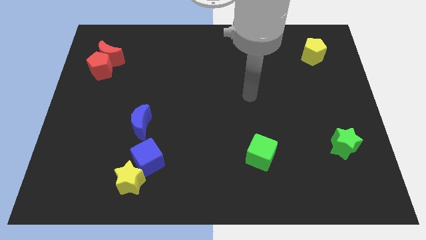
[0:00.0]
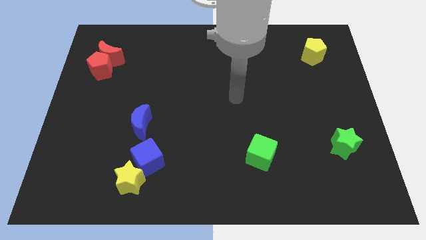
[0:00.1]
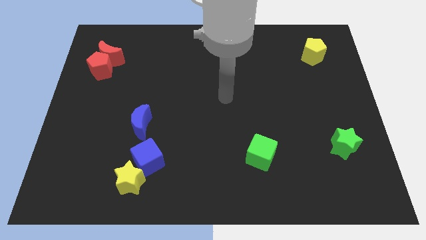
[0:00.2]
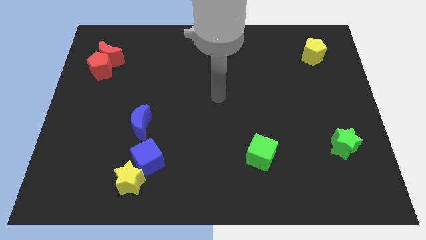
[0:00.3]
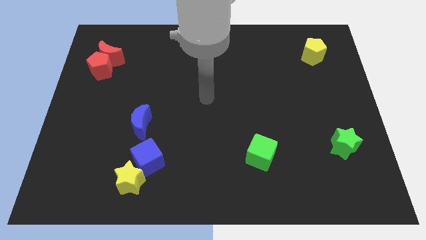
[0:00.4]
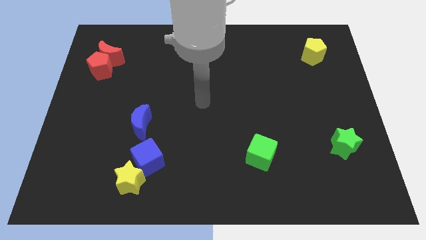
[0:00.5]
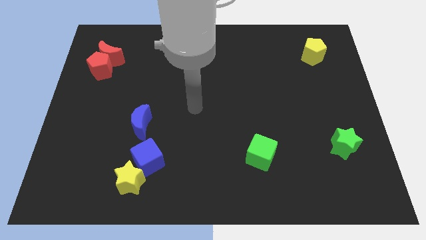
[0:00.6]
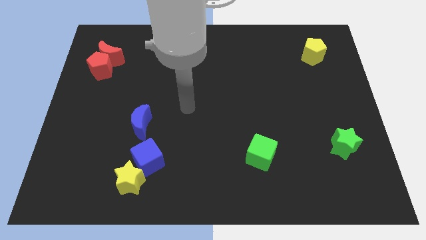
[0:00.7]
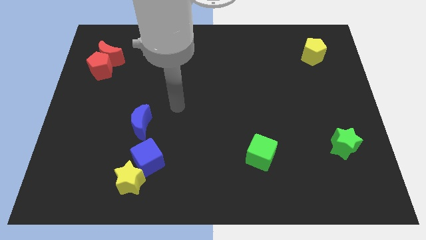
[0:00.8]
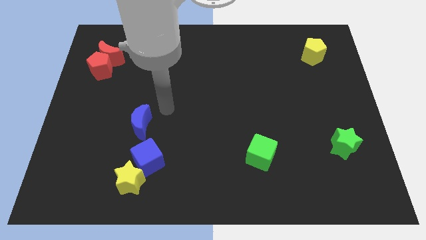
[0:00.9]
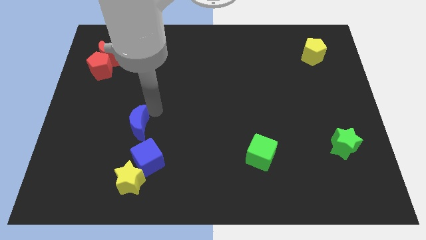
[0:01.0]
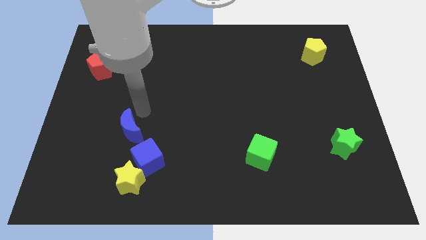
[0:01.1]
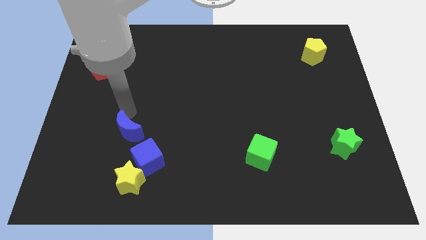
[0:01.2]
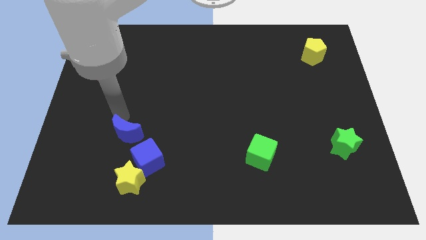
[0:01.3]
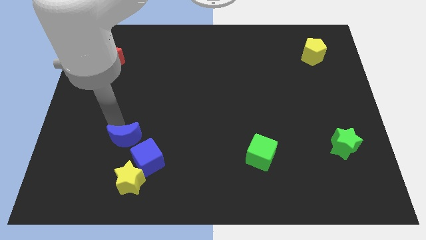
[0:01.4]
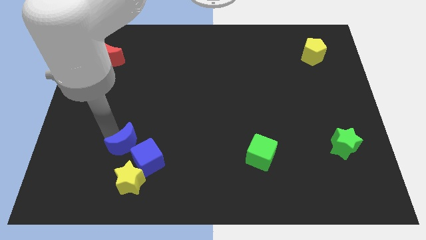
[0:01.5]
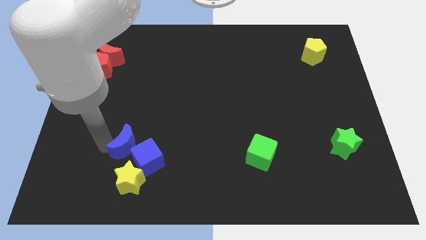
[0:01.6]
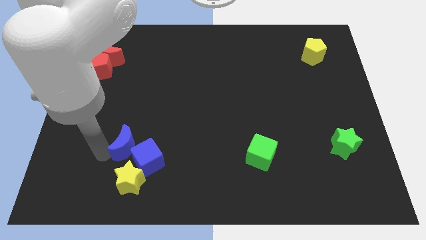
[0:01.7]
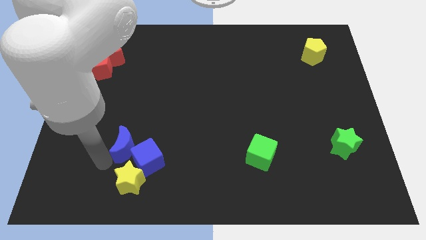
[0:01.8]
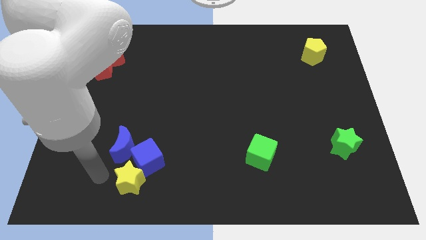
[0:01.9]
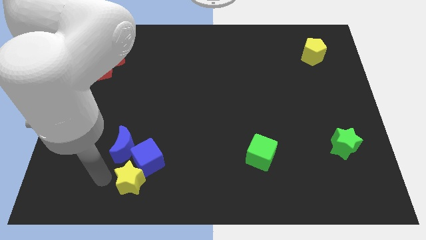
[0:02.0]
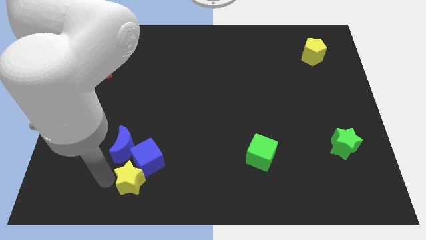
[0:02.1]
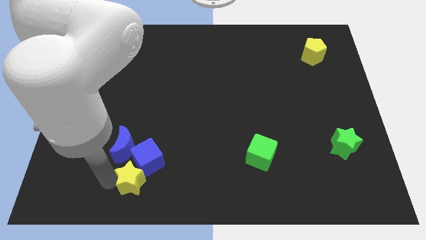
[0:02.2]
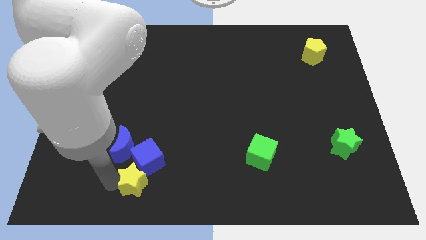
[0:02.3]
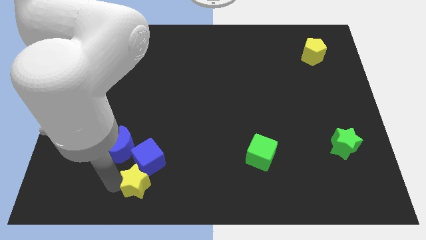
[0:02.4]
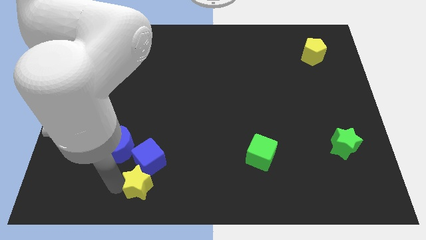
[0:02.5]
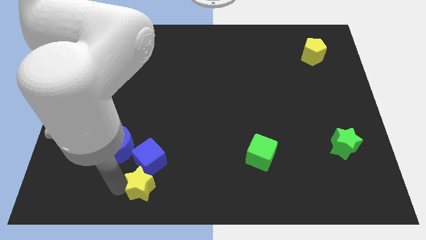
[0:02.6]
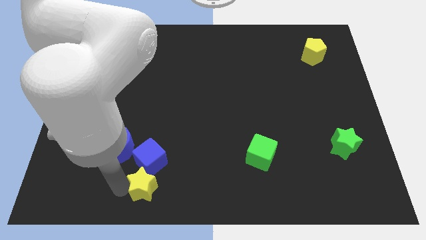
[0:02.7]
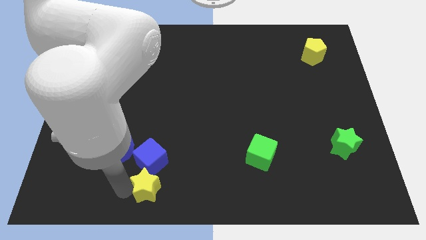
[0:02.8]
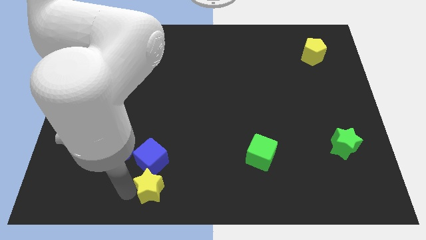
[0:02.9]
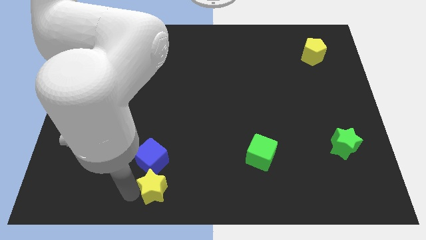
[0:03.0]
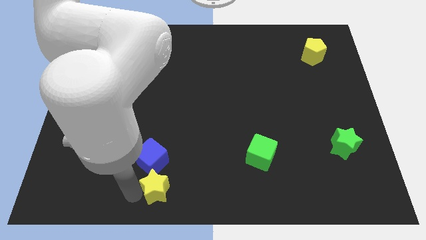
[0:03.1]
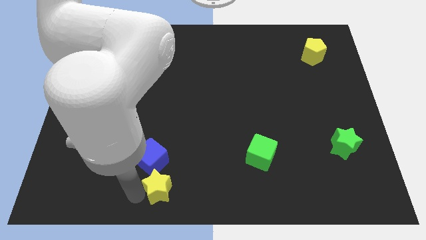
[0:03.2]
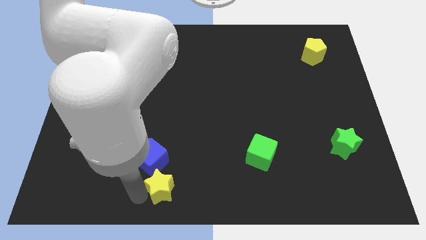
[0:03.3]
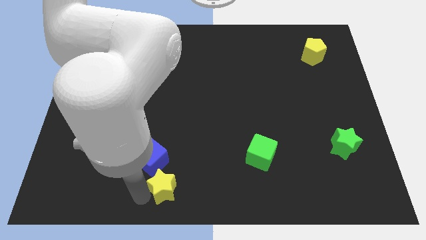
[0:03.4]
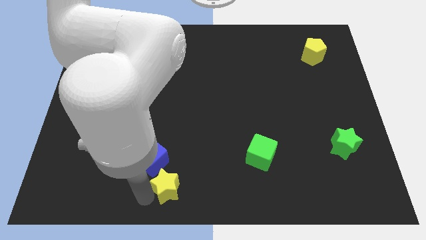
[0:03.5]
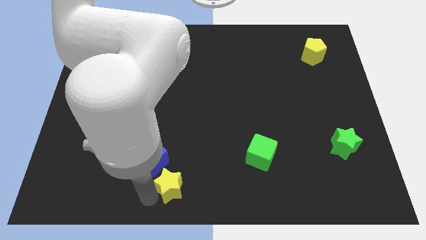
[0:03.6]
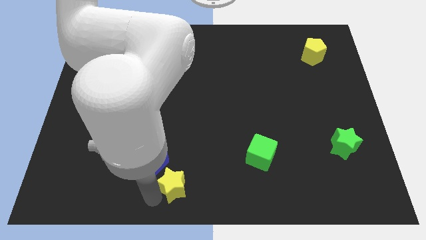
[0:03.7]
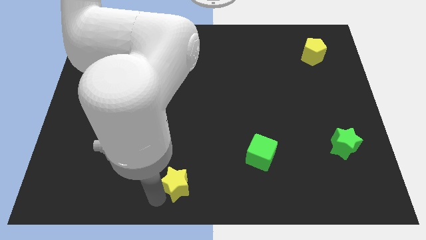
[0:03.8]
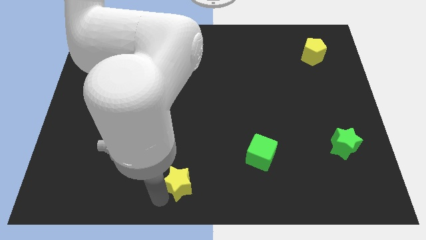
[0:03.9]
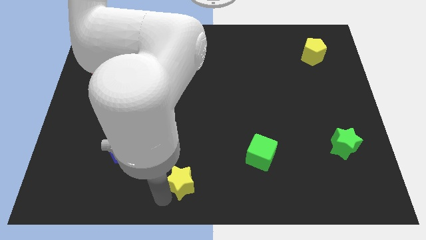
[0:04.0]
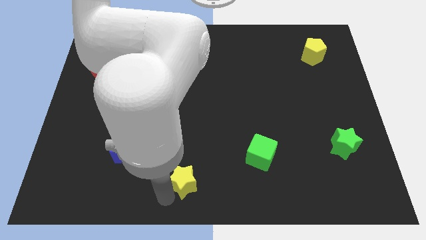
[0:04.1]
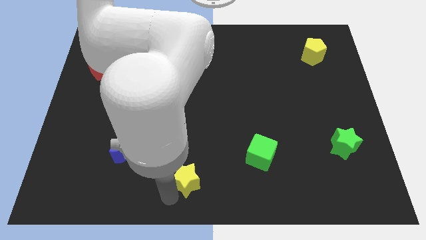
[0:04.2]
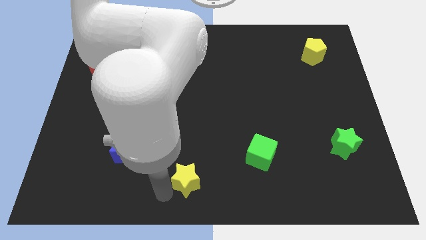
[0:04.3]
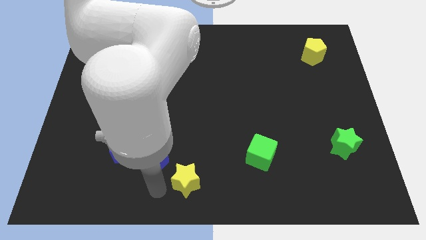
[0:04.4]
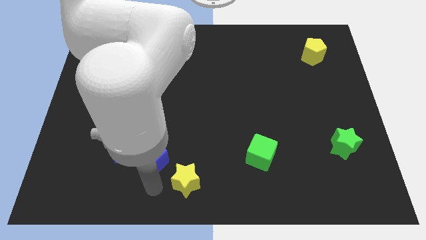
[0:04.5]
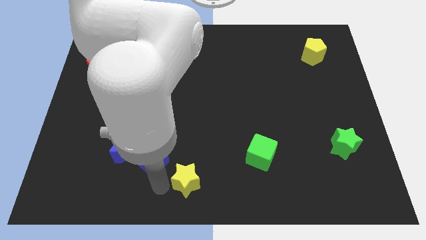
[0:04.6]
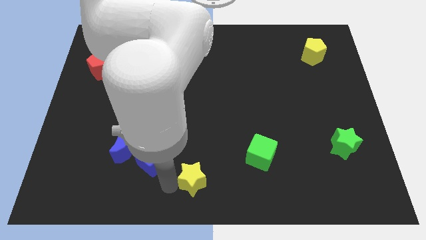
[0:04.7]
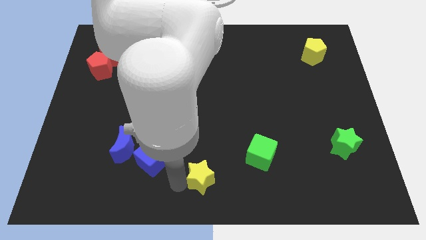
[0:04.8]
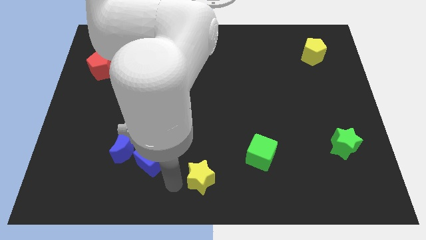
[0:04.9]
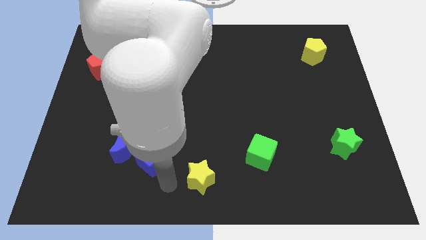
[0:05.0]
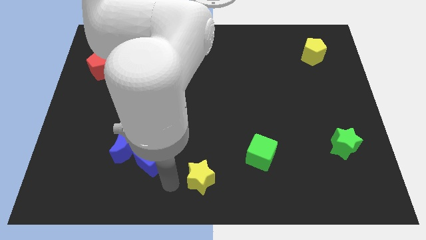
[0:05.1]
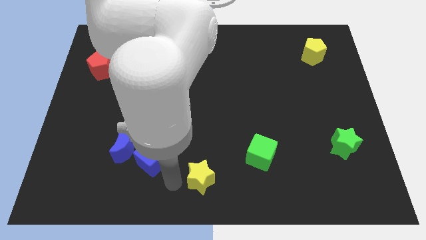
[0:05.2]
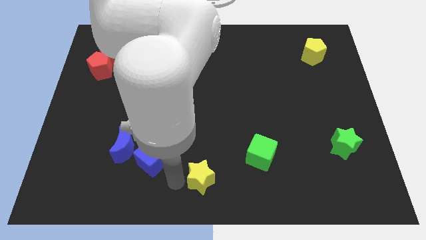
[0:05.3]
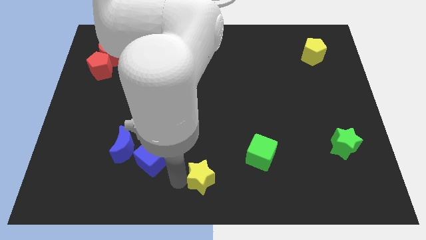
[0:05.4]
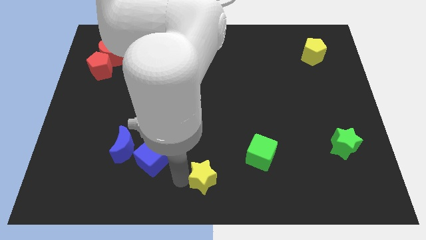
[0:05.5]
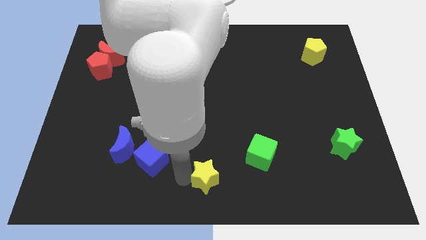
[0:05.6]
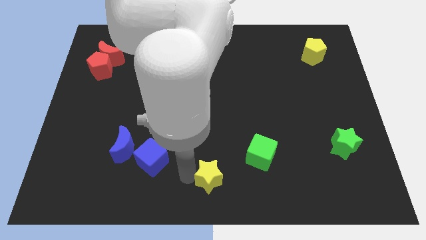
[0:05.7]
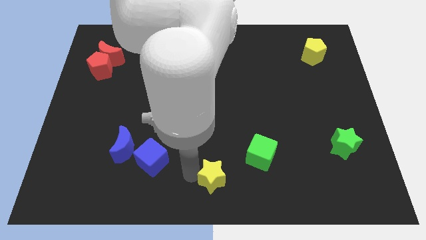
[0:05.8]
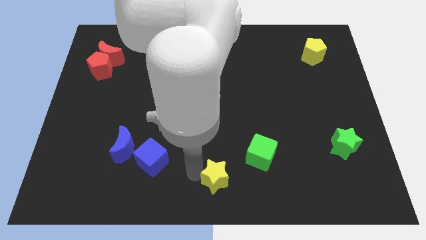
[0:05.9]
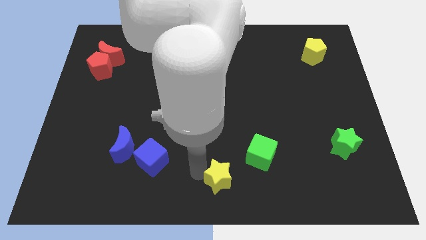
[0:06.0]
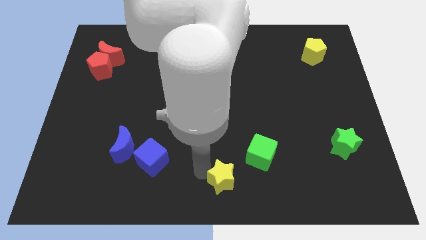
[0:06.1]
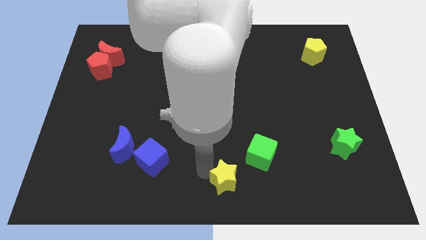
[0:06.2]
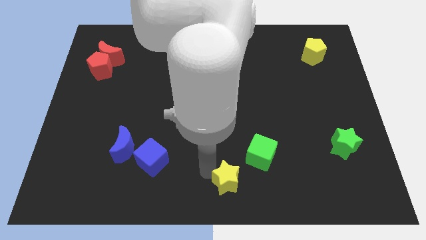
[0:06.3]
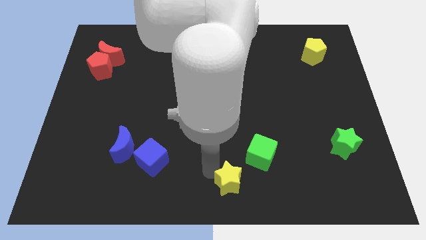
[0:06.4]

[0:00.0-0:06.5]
slide the yellow star to the right

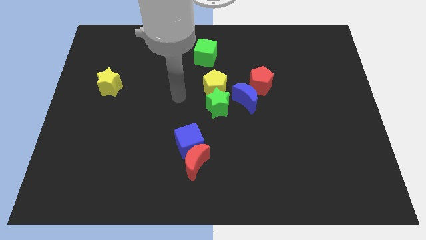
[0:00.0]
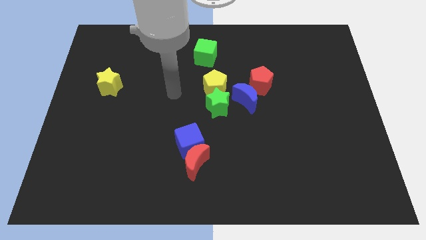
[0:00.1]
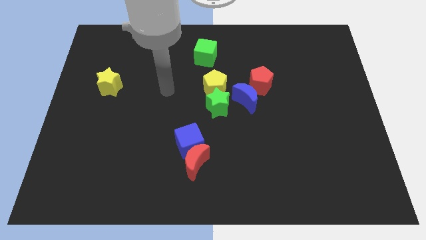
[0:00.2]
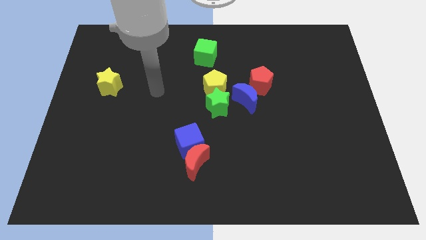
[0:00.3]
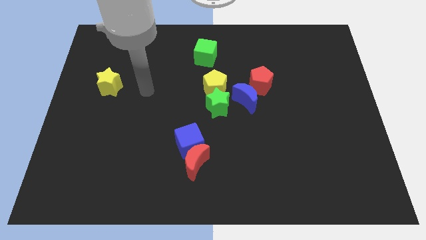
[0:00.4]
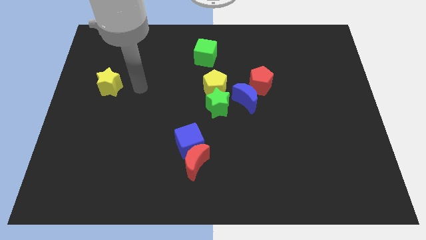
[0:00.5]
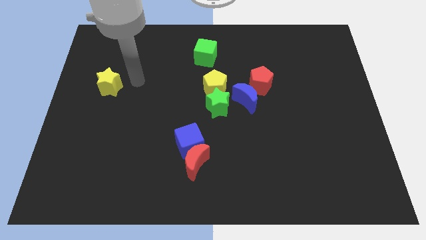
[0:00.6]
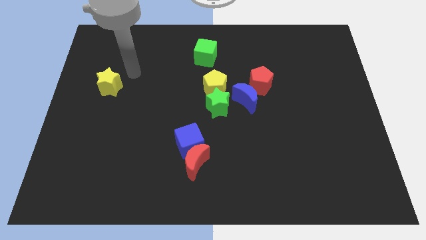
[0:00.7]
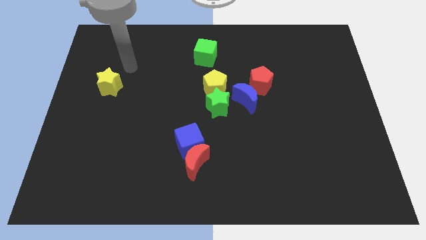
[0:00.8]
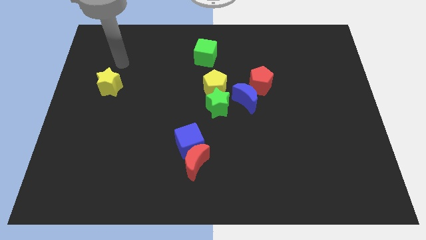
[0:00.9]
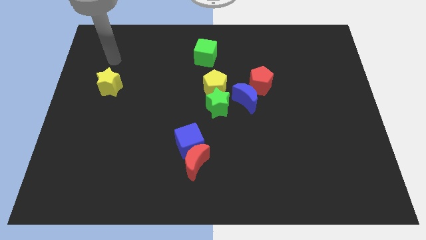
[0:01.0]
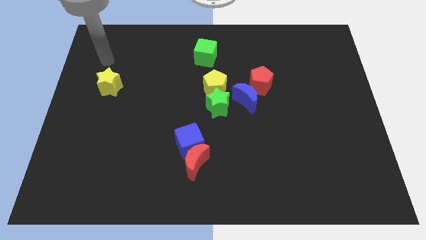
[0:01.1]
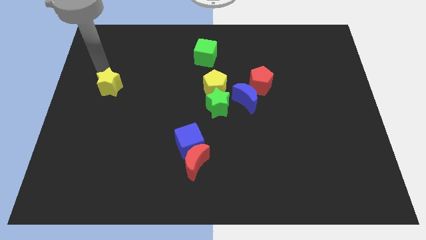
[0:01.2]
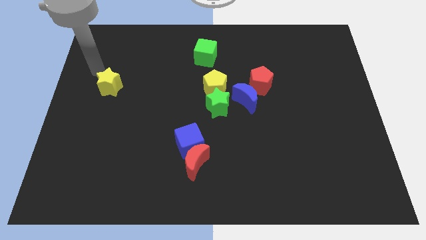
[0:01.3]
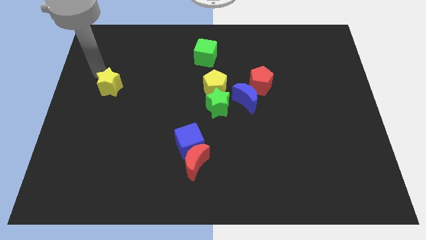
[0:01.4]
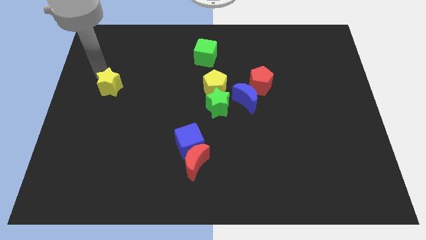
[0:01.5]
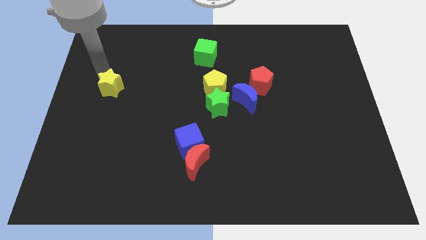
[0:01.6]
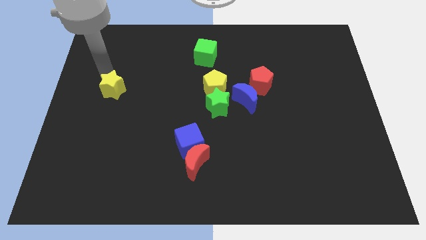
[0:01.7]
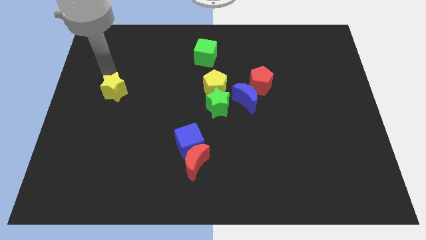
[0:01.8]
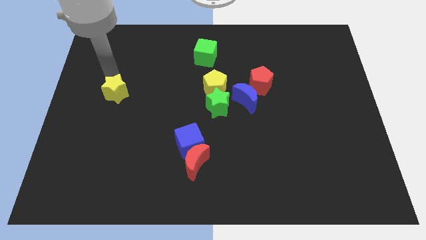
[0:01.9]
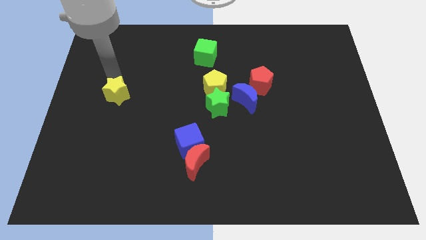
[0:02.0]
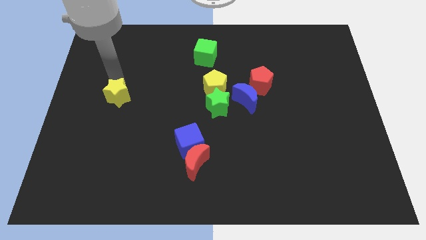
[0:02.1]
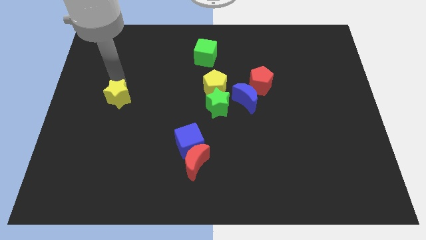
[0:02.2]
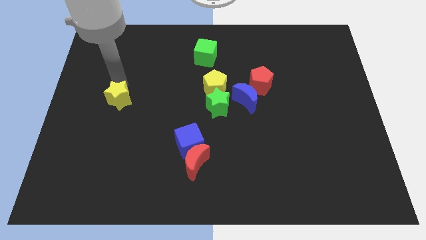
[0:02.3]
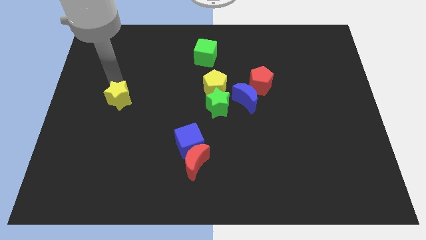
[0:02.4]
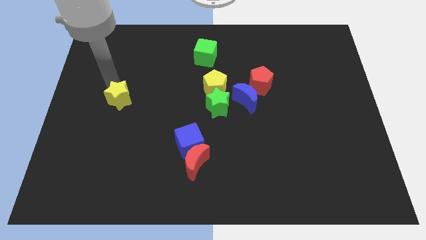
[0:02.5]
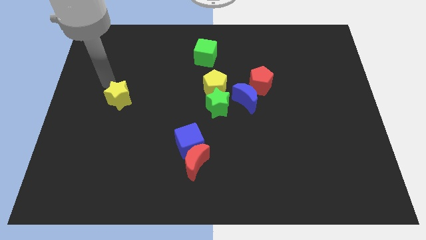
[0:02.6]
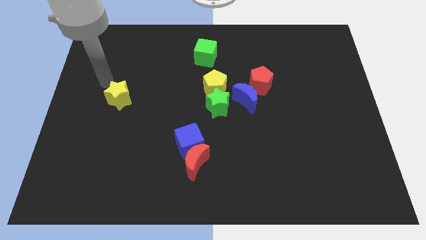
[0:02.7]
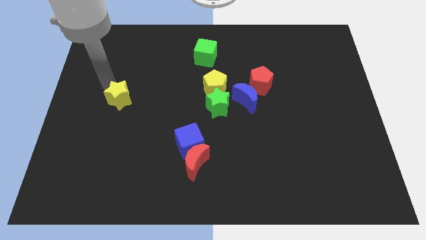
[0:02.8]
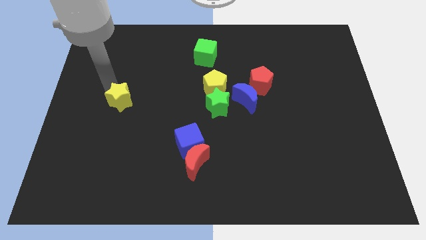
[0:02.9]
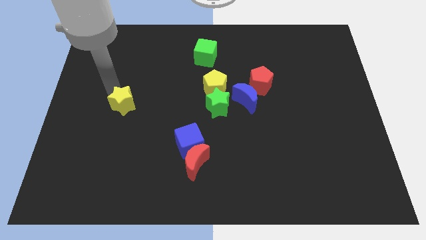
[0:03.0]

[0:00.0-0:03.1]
push the yellow star a little down and right
